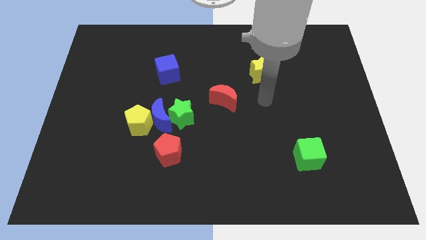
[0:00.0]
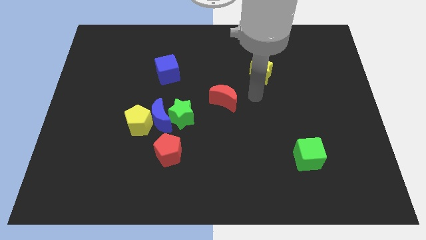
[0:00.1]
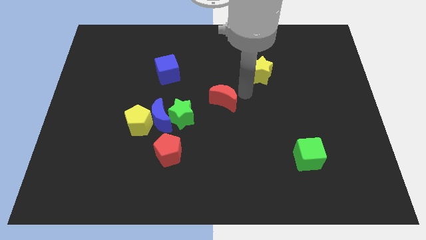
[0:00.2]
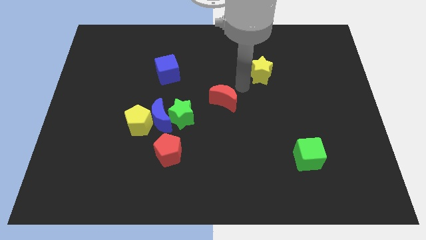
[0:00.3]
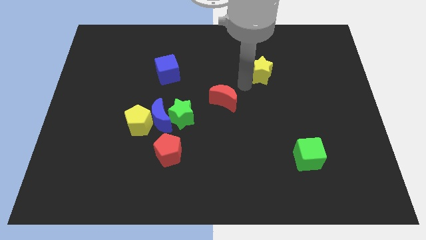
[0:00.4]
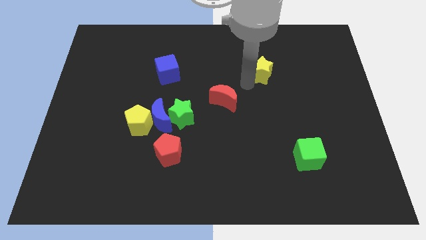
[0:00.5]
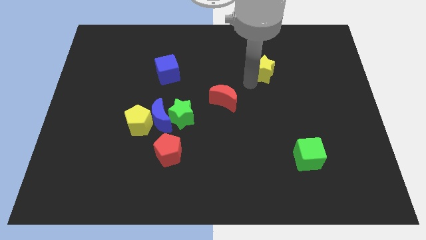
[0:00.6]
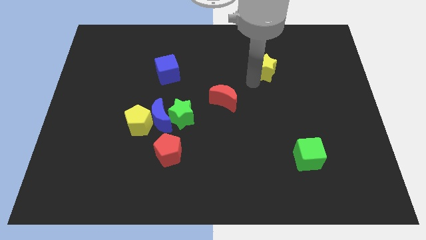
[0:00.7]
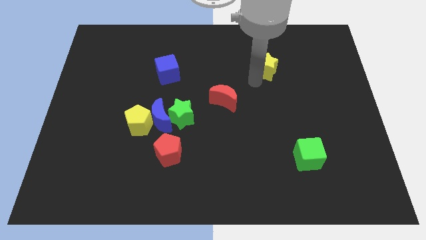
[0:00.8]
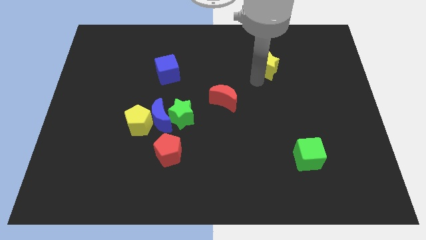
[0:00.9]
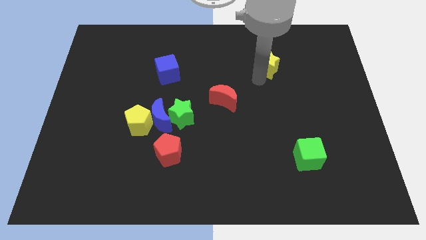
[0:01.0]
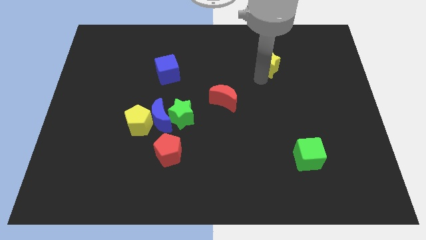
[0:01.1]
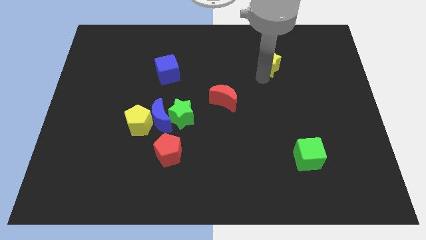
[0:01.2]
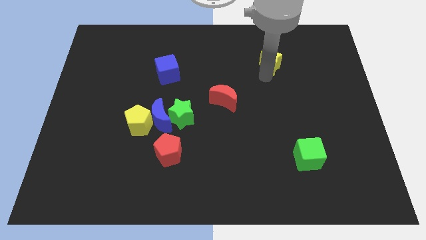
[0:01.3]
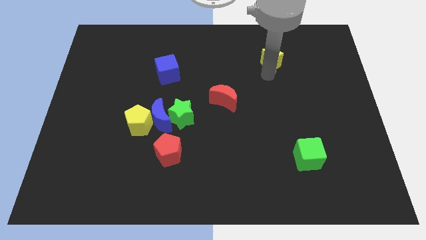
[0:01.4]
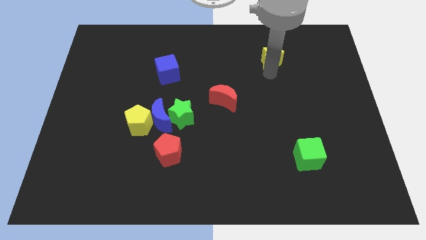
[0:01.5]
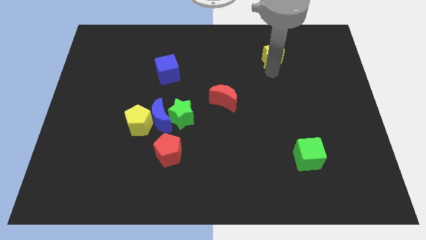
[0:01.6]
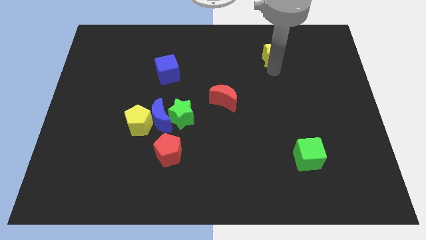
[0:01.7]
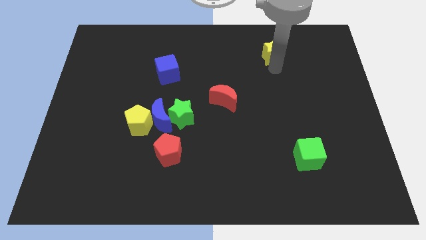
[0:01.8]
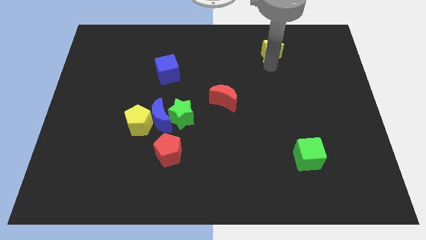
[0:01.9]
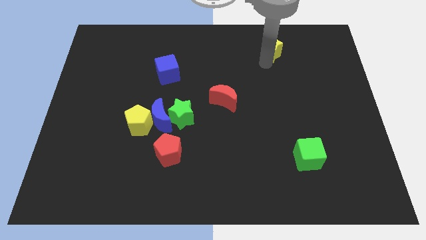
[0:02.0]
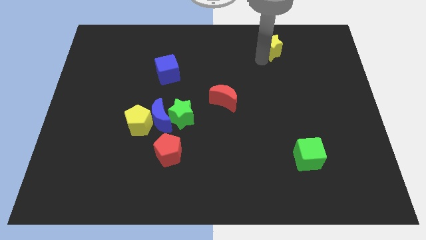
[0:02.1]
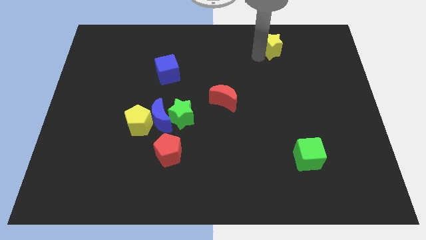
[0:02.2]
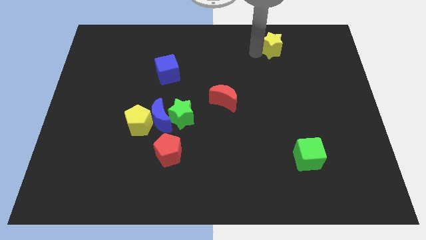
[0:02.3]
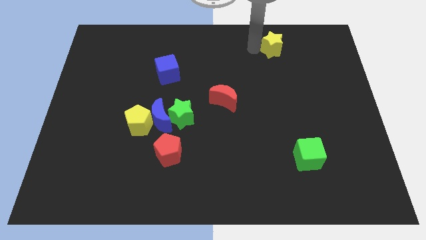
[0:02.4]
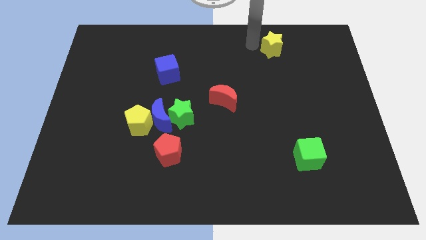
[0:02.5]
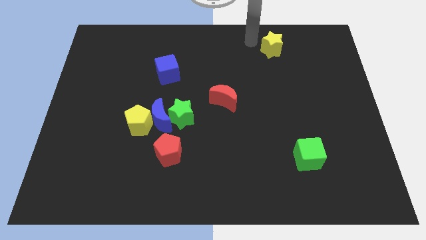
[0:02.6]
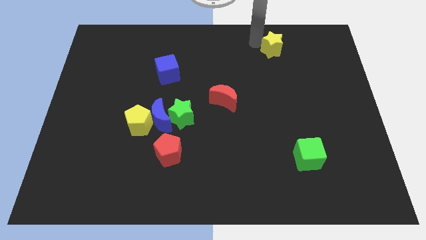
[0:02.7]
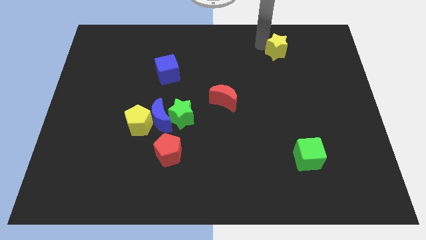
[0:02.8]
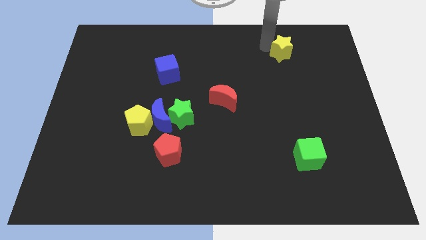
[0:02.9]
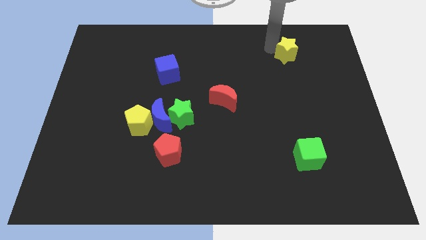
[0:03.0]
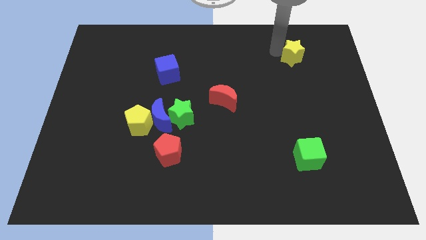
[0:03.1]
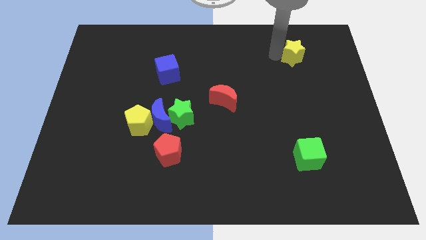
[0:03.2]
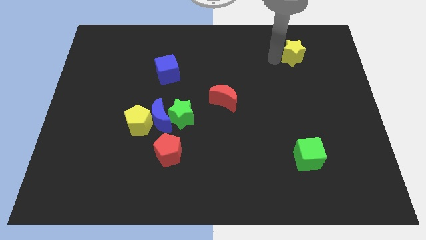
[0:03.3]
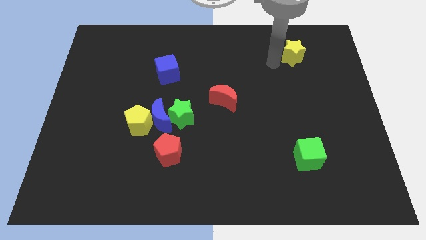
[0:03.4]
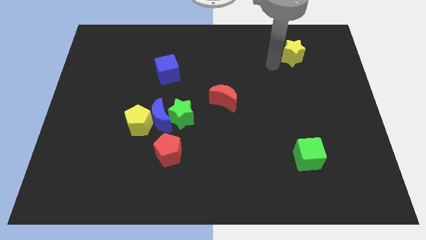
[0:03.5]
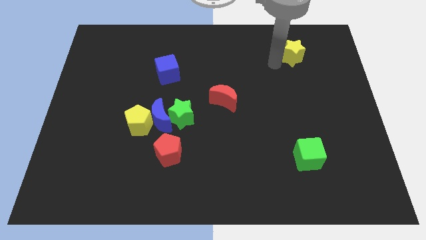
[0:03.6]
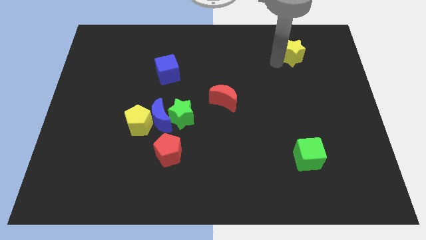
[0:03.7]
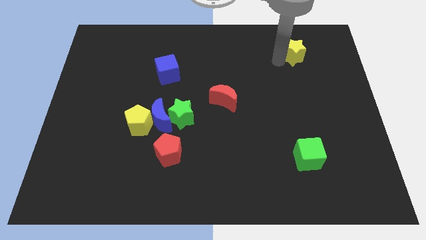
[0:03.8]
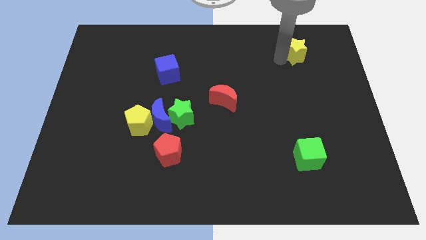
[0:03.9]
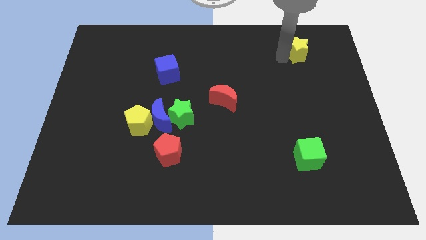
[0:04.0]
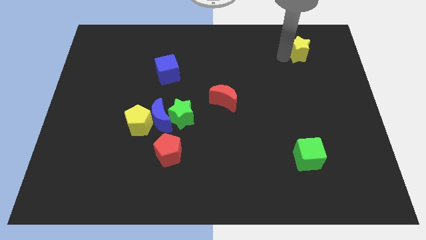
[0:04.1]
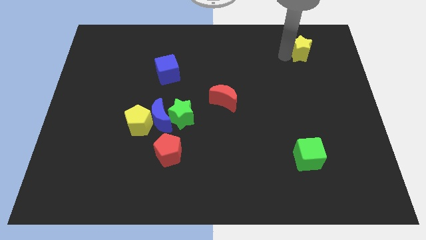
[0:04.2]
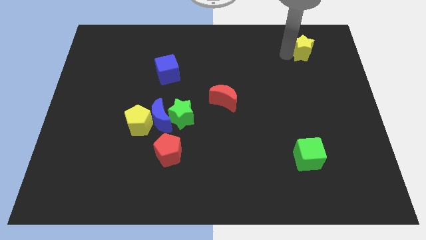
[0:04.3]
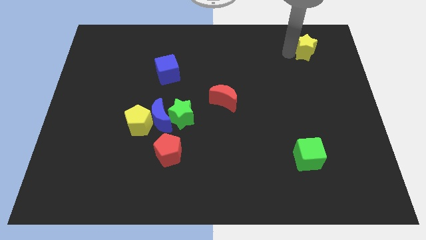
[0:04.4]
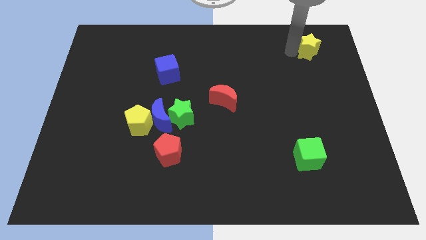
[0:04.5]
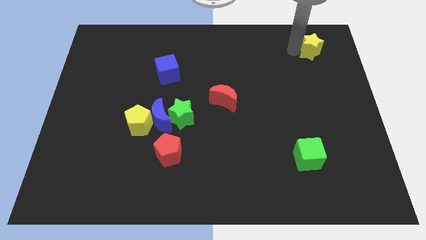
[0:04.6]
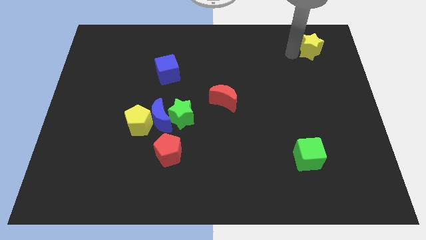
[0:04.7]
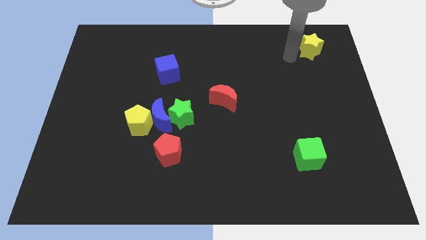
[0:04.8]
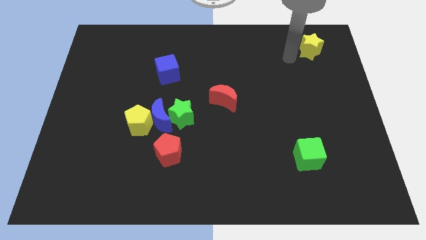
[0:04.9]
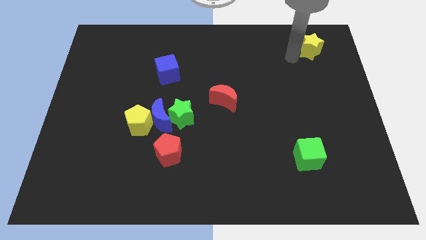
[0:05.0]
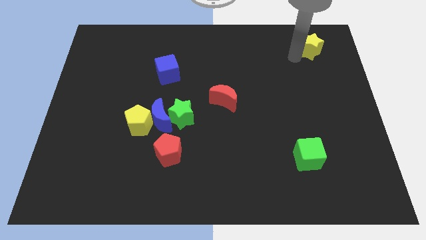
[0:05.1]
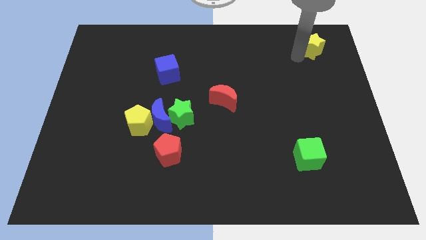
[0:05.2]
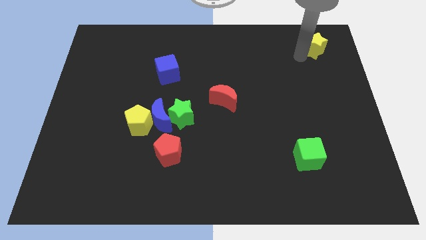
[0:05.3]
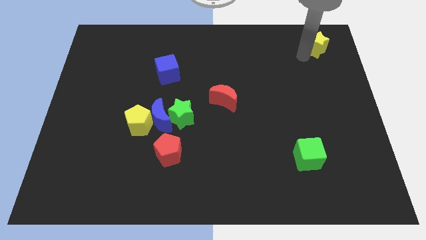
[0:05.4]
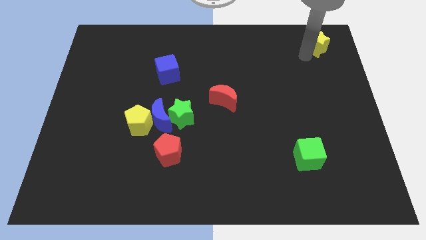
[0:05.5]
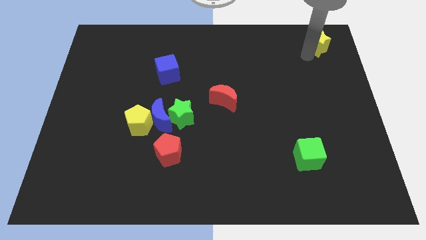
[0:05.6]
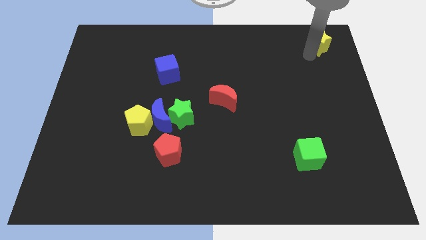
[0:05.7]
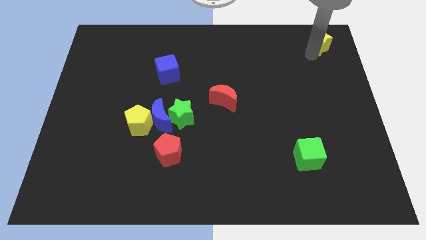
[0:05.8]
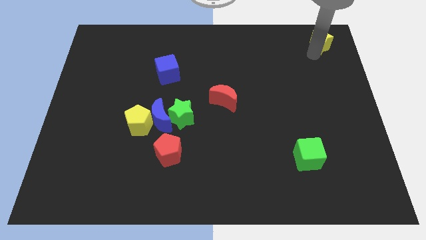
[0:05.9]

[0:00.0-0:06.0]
move the yellow star to the top right
